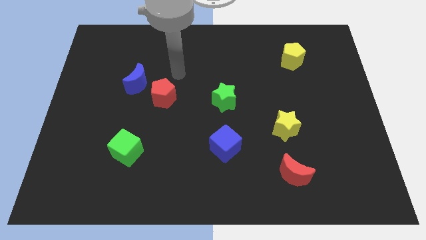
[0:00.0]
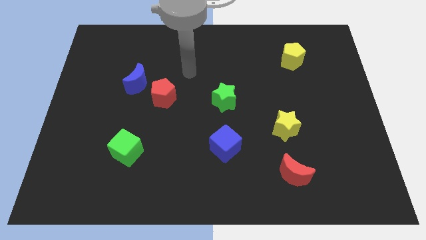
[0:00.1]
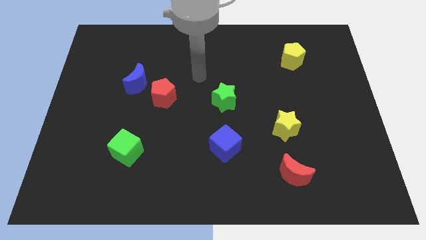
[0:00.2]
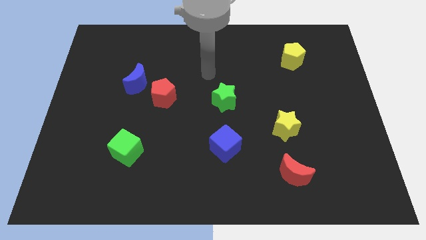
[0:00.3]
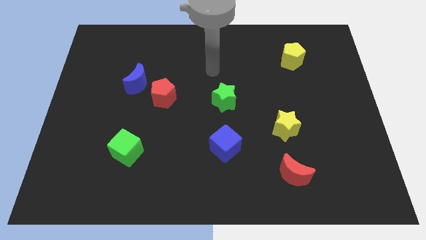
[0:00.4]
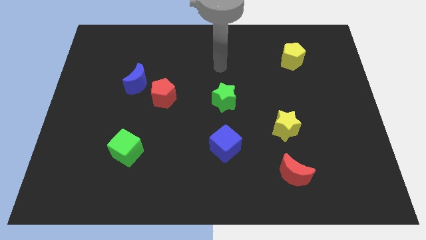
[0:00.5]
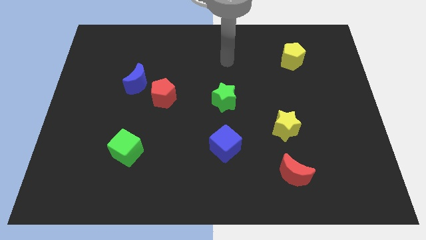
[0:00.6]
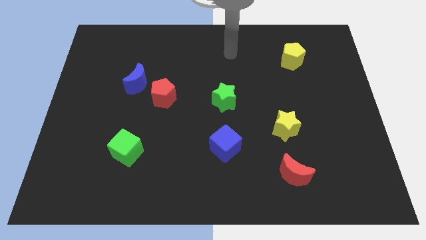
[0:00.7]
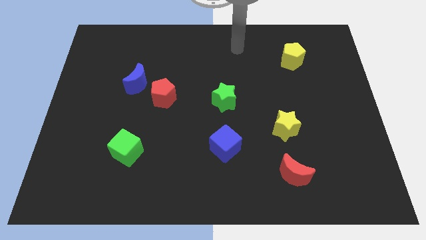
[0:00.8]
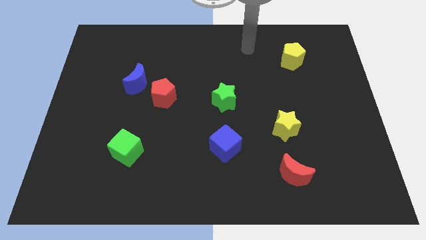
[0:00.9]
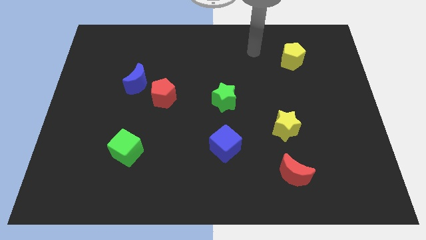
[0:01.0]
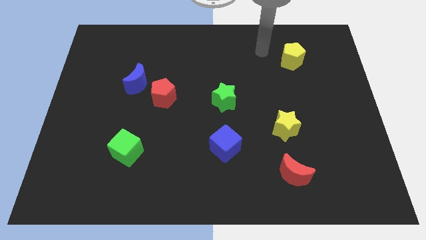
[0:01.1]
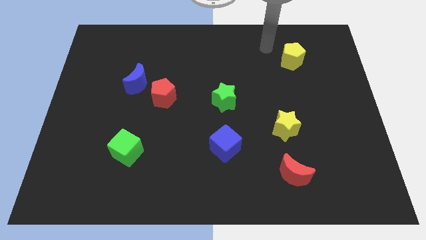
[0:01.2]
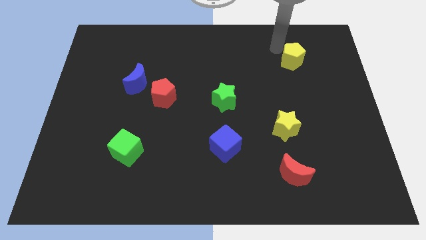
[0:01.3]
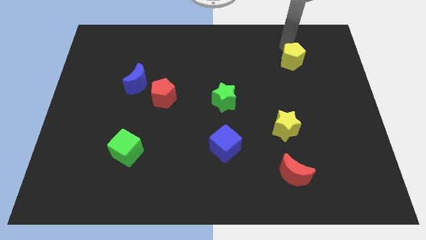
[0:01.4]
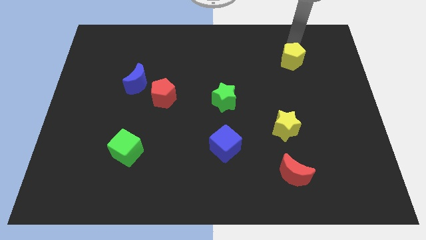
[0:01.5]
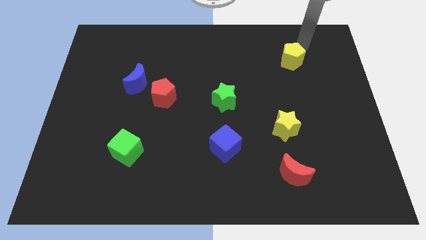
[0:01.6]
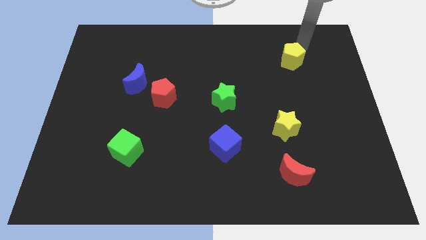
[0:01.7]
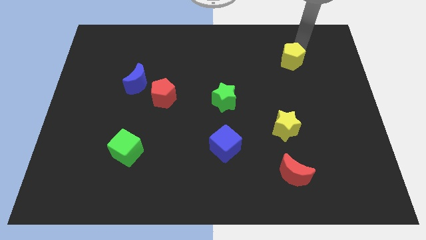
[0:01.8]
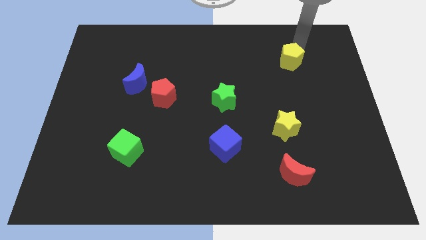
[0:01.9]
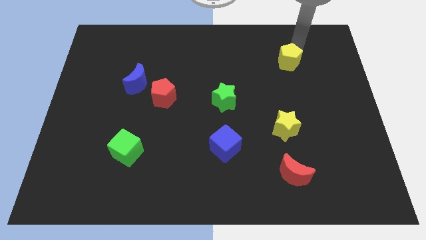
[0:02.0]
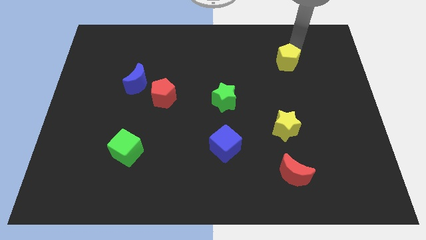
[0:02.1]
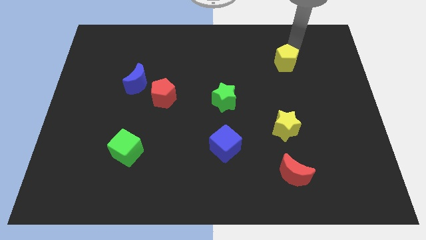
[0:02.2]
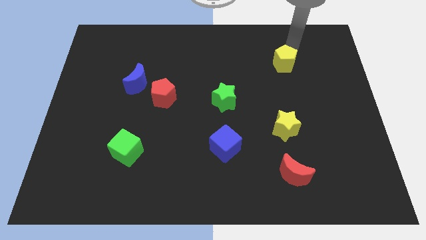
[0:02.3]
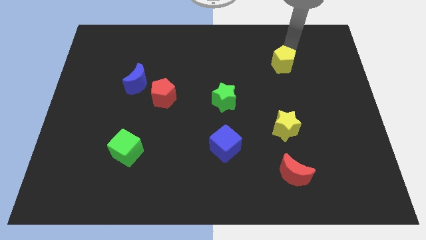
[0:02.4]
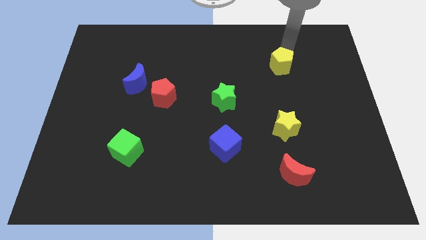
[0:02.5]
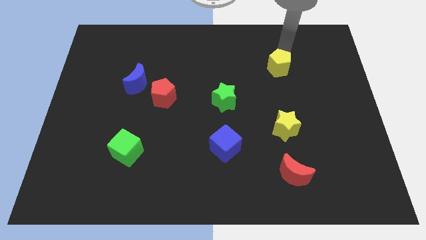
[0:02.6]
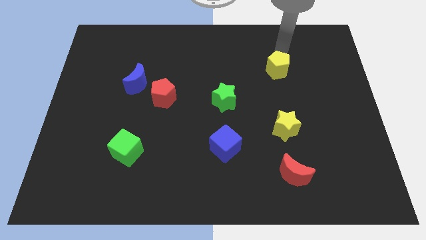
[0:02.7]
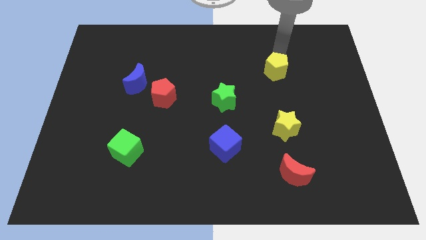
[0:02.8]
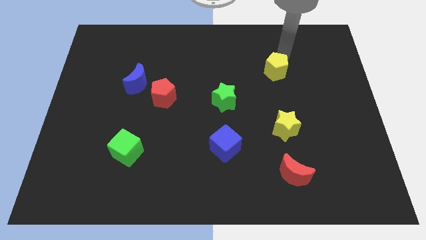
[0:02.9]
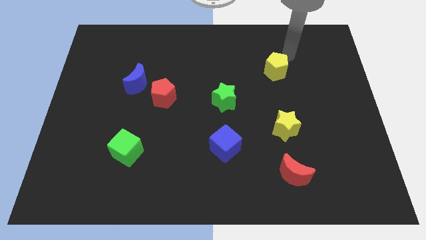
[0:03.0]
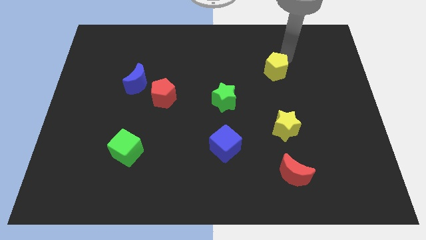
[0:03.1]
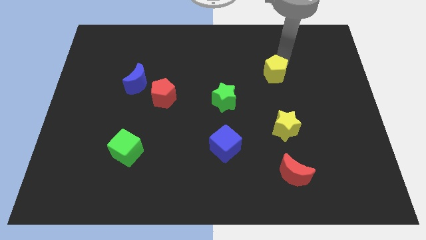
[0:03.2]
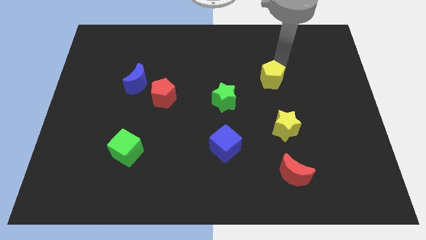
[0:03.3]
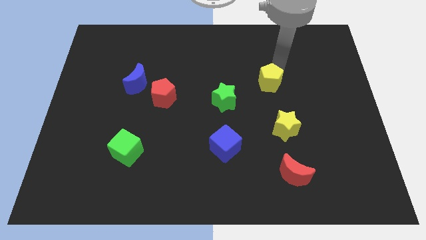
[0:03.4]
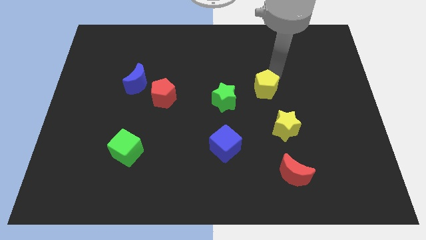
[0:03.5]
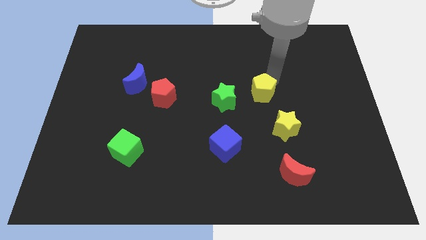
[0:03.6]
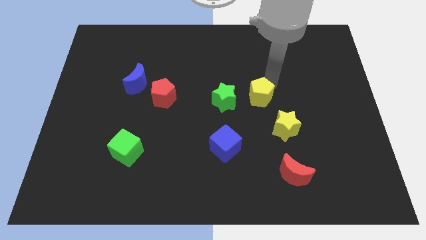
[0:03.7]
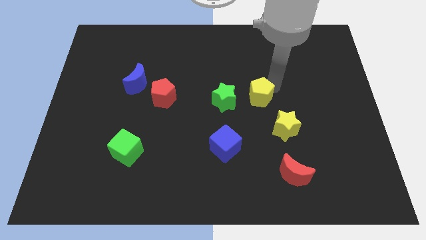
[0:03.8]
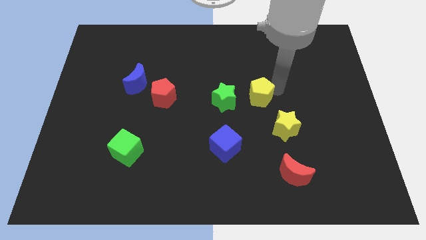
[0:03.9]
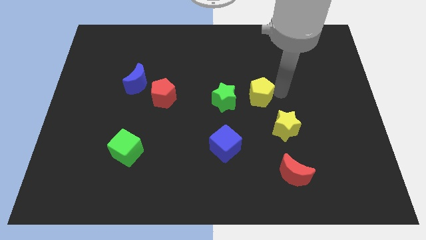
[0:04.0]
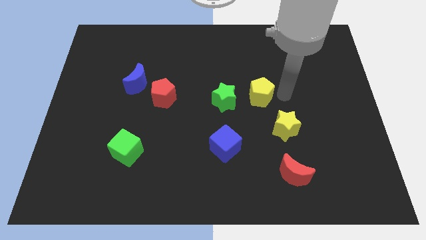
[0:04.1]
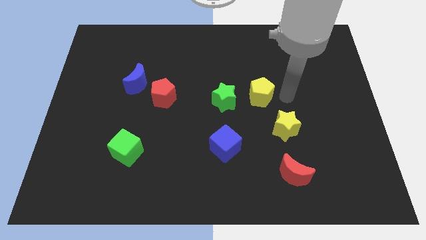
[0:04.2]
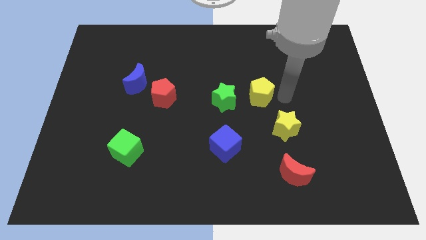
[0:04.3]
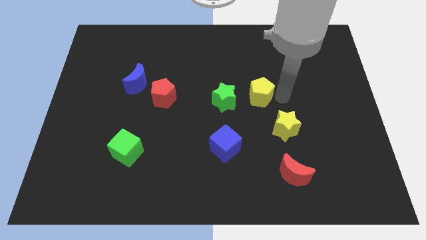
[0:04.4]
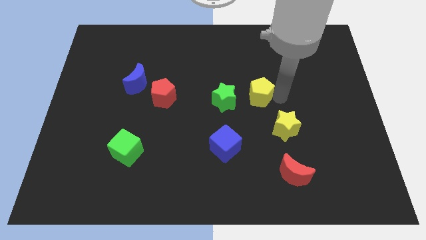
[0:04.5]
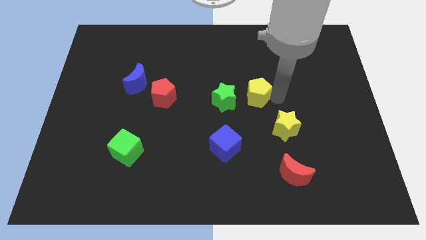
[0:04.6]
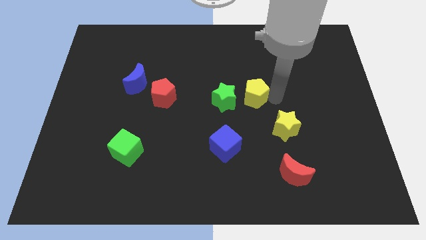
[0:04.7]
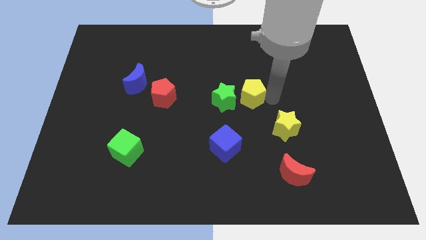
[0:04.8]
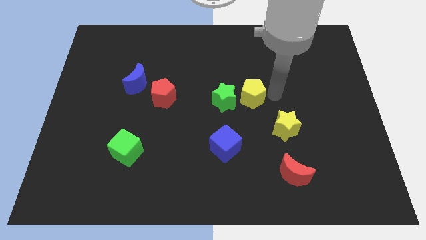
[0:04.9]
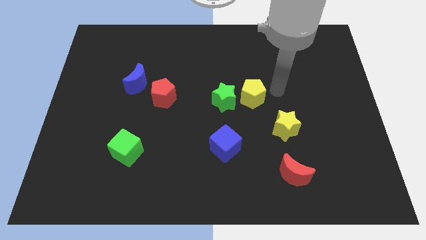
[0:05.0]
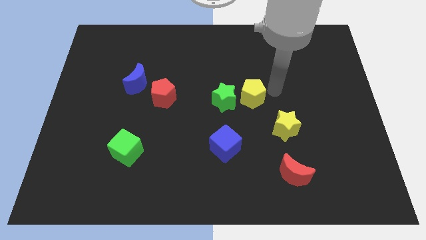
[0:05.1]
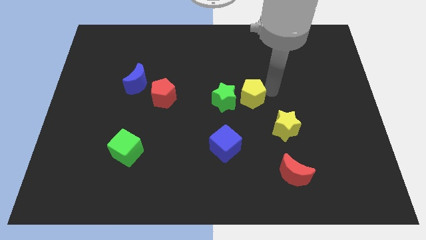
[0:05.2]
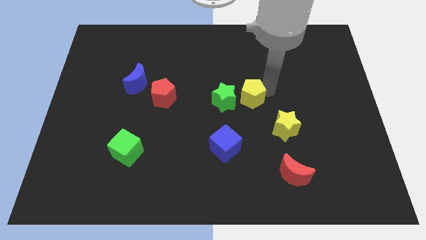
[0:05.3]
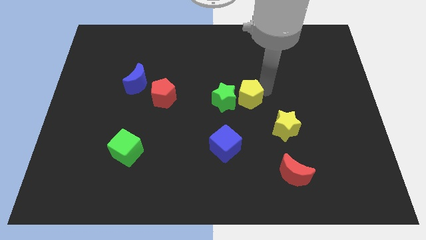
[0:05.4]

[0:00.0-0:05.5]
move the yellow pentagon next to the green star

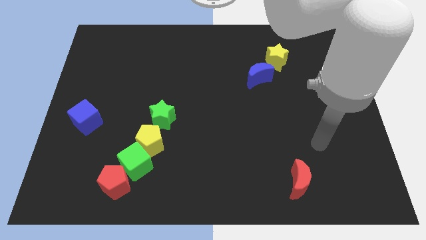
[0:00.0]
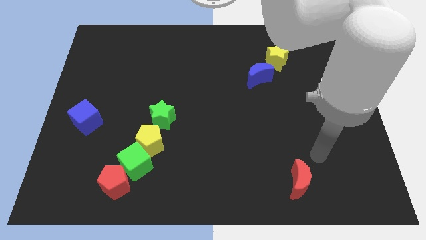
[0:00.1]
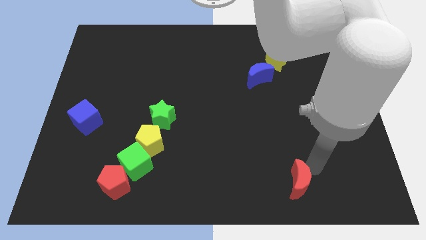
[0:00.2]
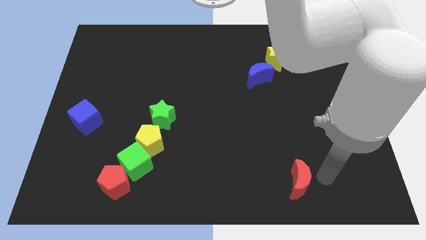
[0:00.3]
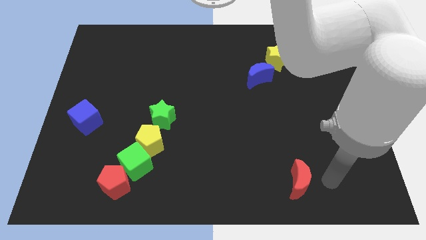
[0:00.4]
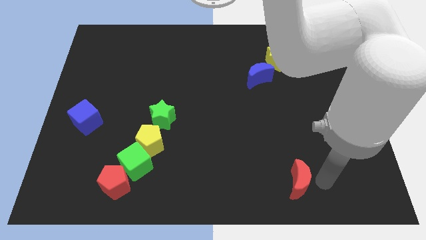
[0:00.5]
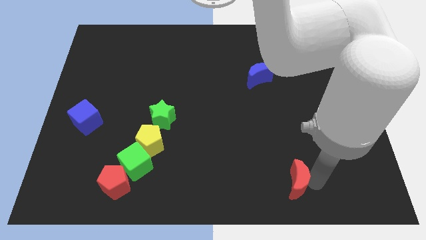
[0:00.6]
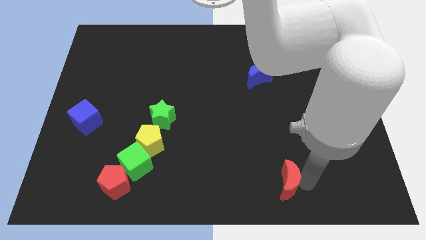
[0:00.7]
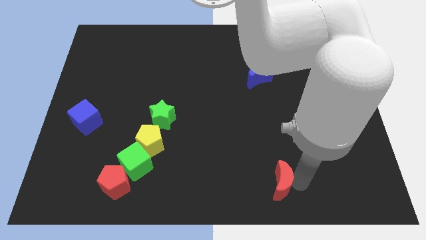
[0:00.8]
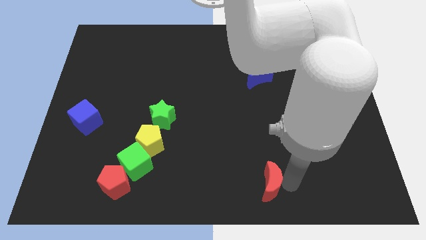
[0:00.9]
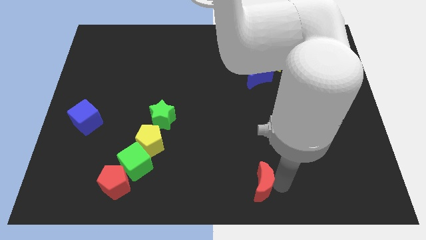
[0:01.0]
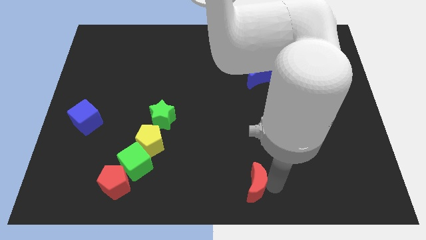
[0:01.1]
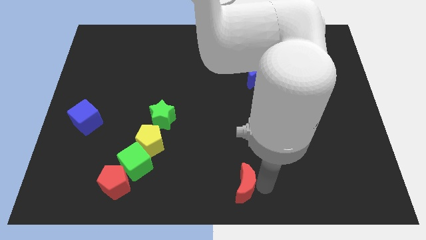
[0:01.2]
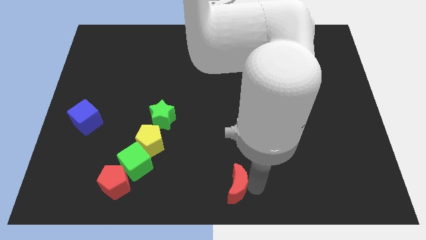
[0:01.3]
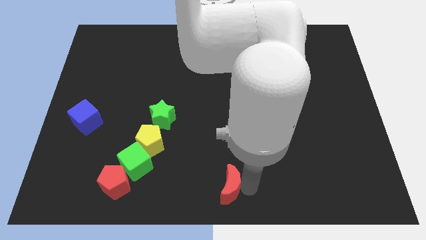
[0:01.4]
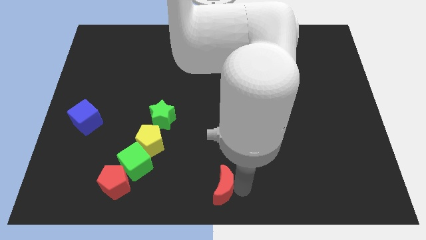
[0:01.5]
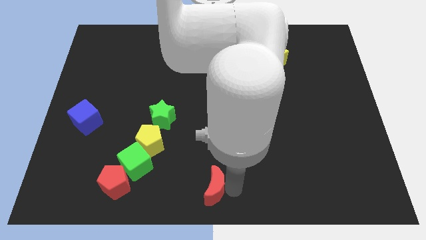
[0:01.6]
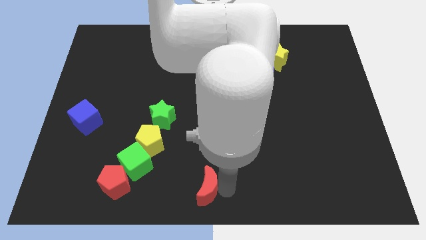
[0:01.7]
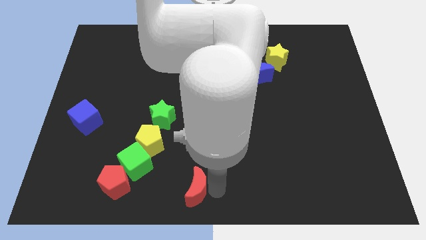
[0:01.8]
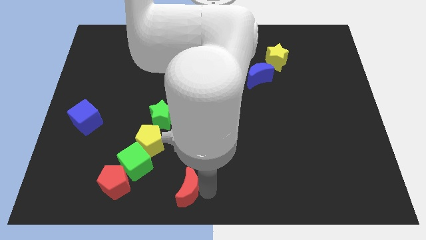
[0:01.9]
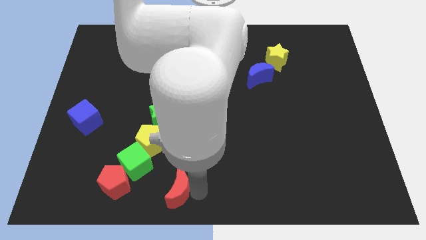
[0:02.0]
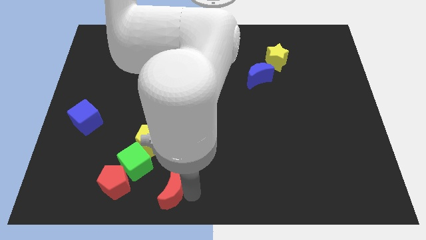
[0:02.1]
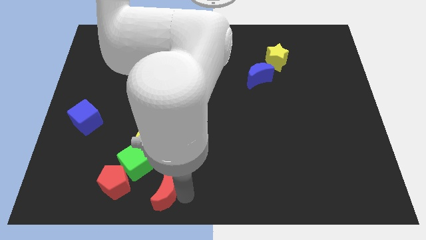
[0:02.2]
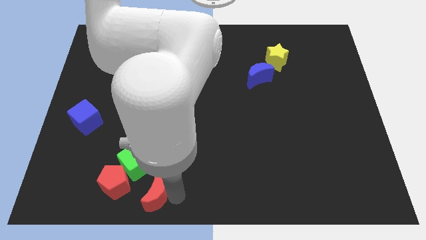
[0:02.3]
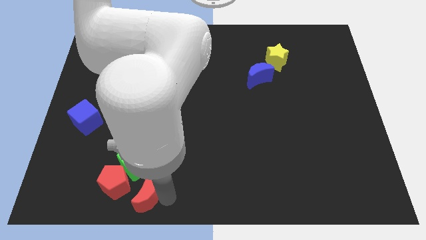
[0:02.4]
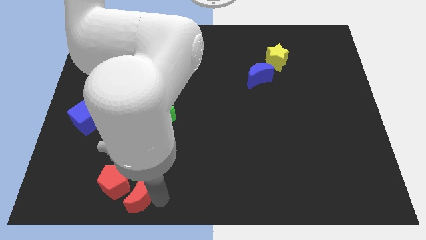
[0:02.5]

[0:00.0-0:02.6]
push the red moon close to the red pentagon
